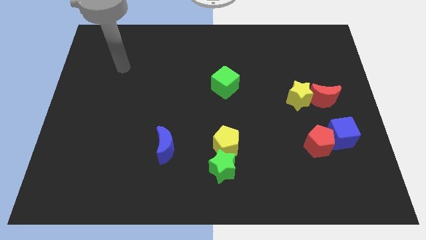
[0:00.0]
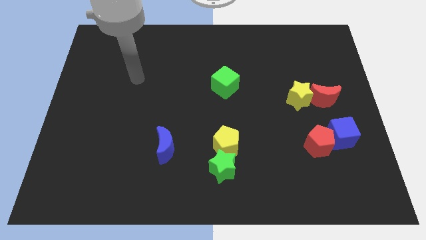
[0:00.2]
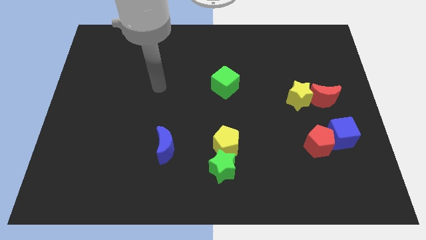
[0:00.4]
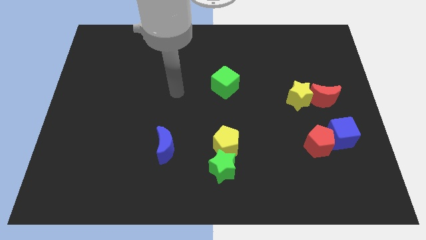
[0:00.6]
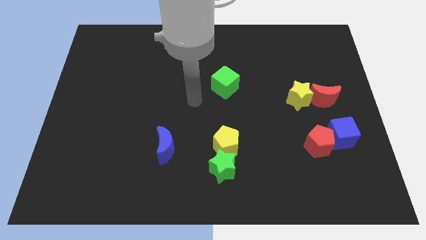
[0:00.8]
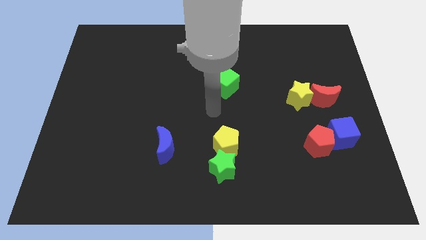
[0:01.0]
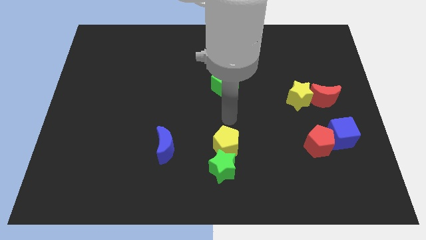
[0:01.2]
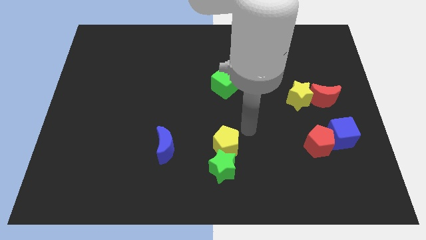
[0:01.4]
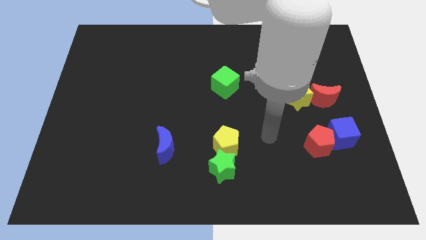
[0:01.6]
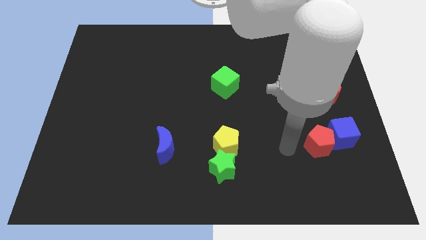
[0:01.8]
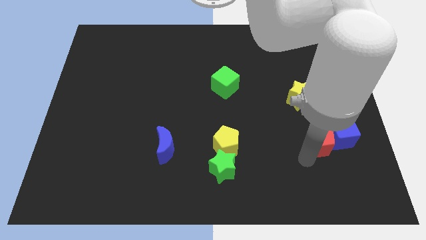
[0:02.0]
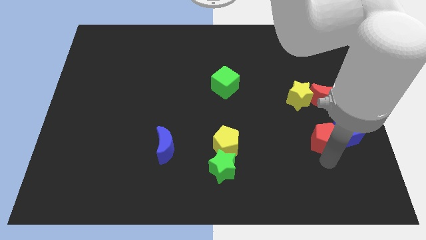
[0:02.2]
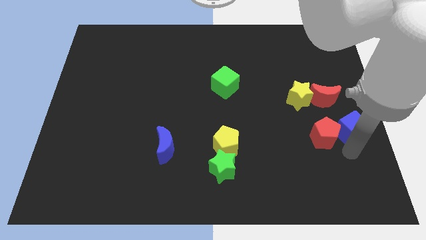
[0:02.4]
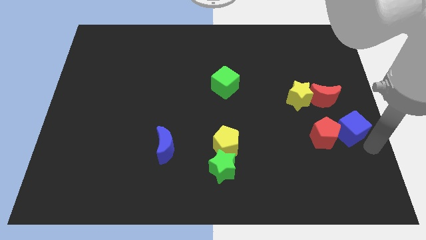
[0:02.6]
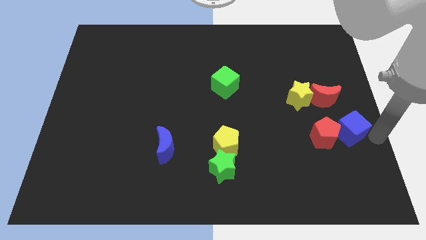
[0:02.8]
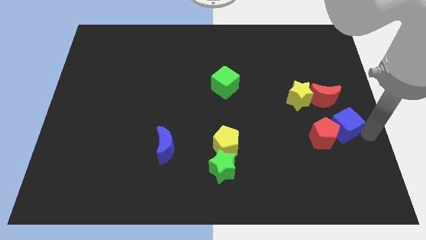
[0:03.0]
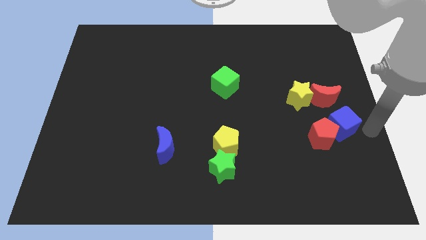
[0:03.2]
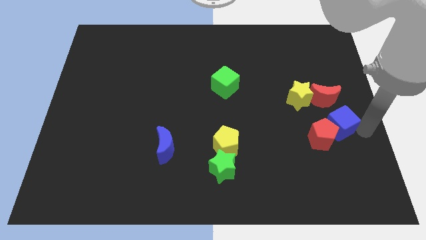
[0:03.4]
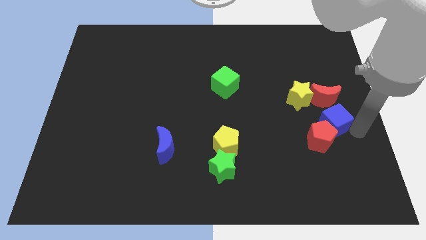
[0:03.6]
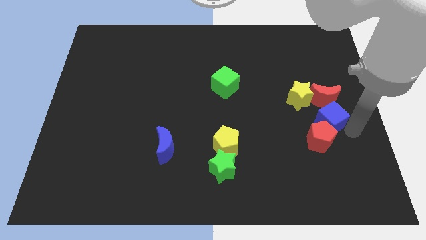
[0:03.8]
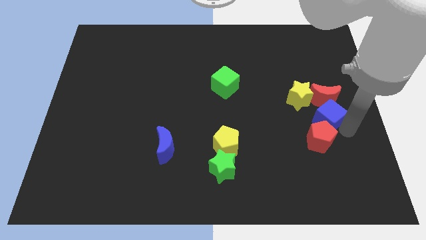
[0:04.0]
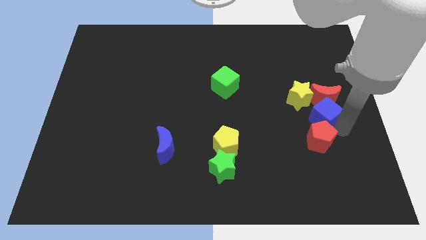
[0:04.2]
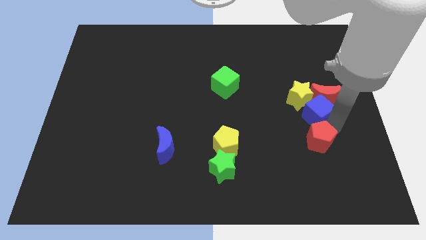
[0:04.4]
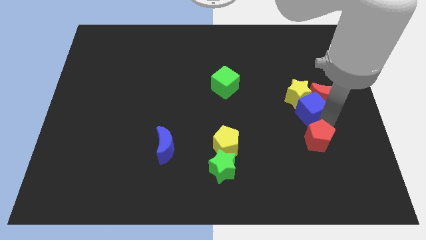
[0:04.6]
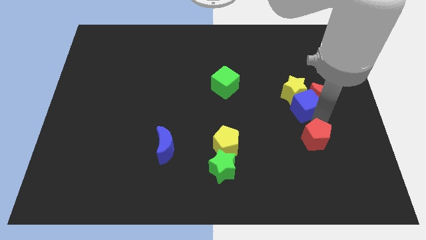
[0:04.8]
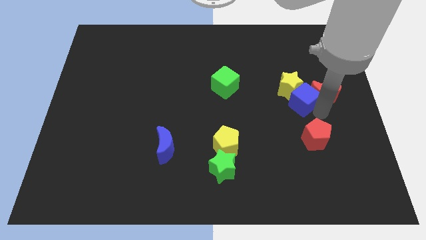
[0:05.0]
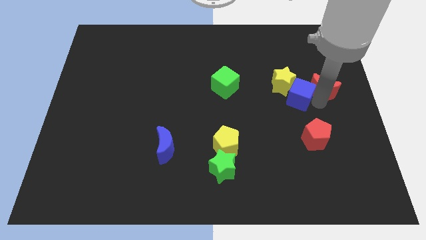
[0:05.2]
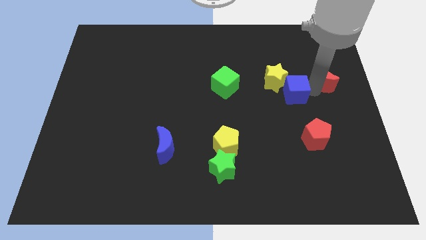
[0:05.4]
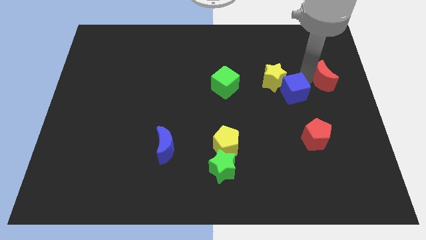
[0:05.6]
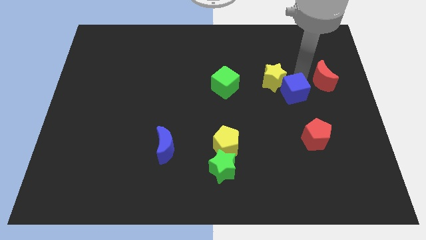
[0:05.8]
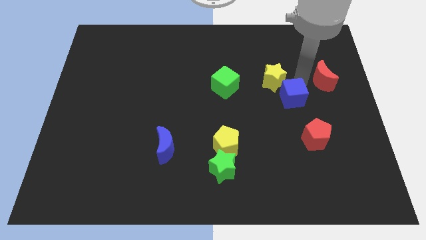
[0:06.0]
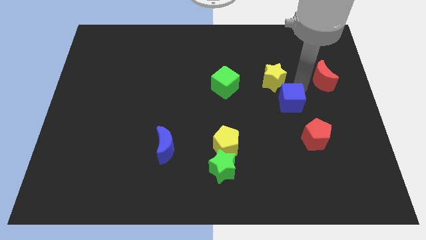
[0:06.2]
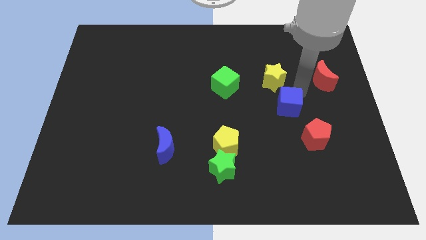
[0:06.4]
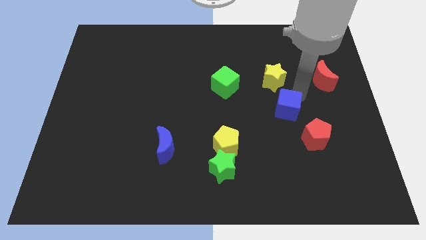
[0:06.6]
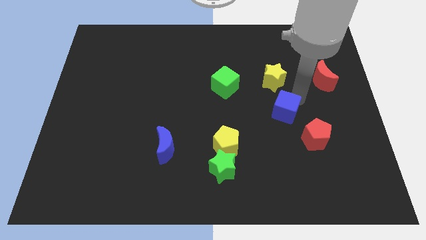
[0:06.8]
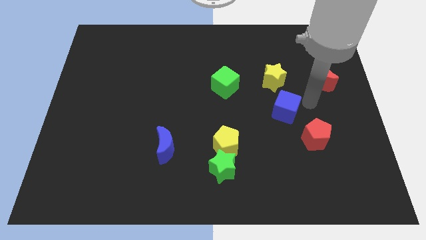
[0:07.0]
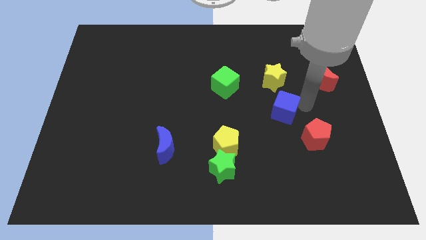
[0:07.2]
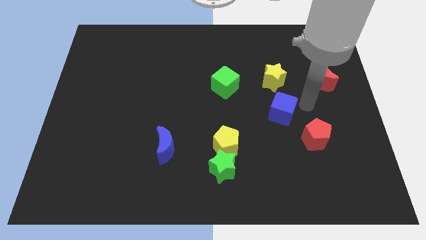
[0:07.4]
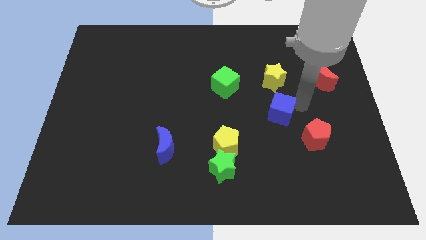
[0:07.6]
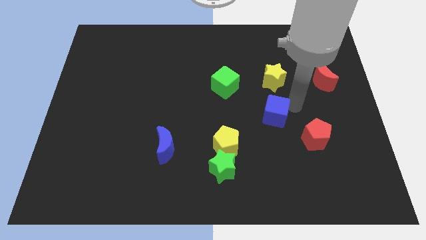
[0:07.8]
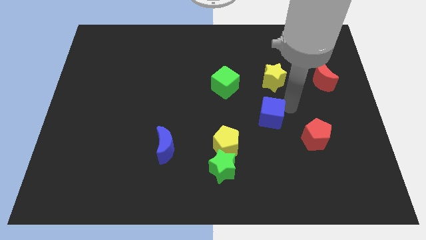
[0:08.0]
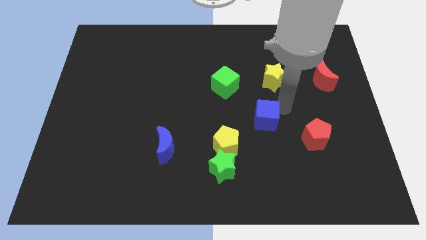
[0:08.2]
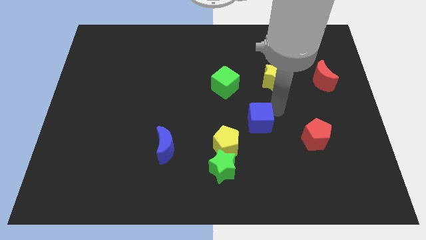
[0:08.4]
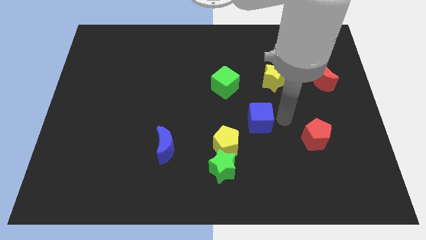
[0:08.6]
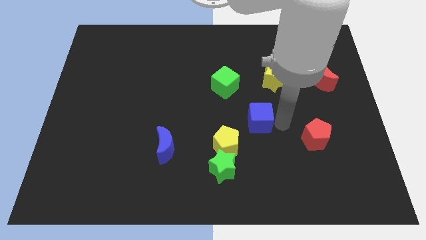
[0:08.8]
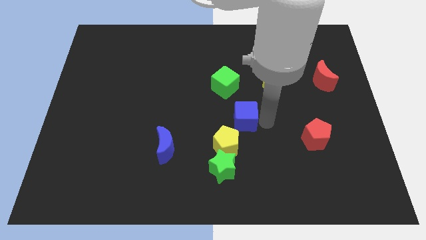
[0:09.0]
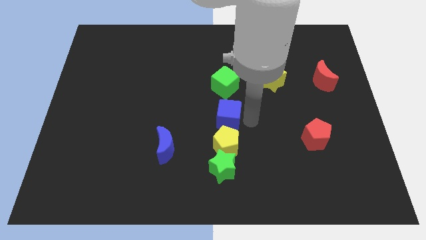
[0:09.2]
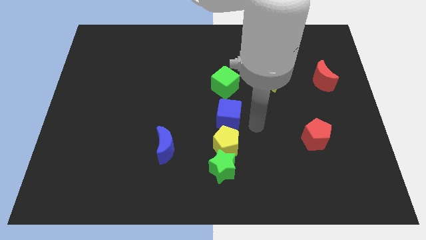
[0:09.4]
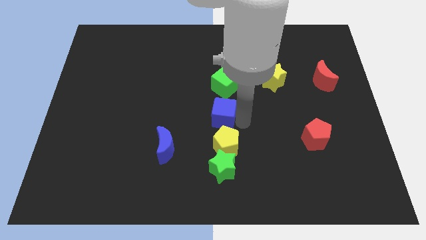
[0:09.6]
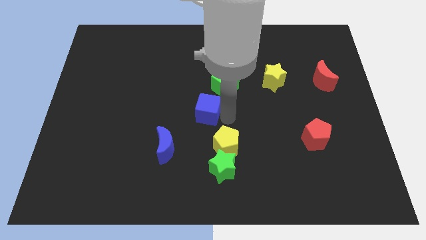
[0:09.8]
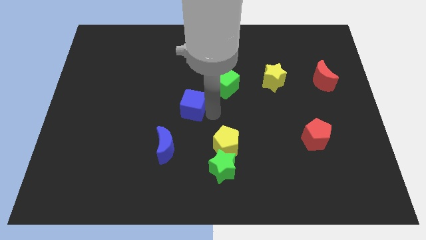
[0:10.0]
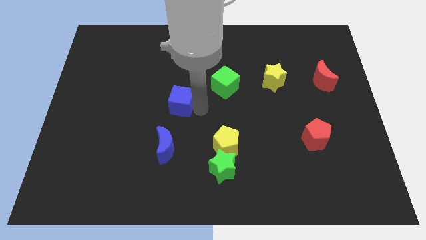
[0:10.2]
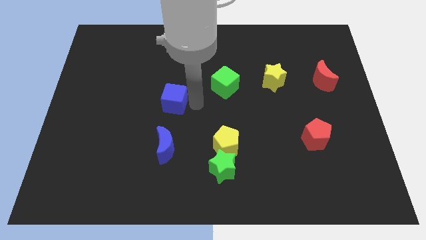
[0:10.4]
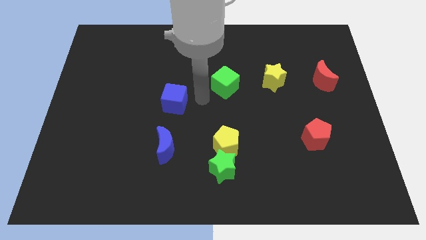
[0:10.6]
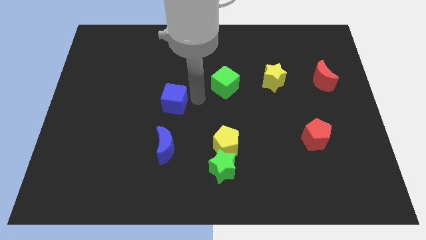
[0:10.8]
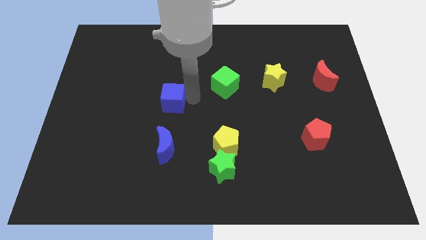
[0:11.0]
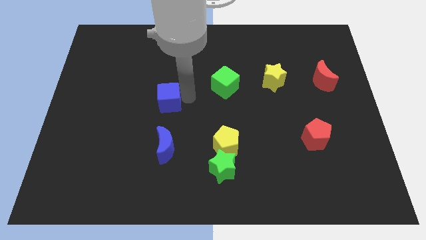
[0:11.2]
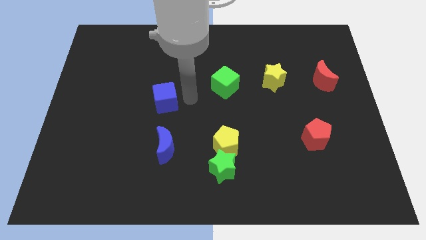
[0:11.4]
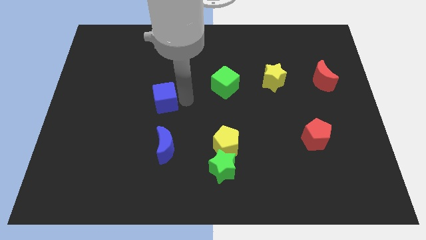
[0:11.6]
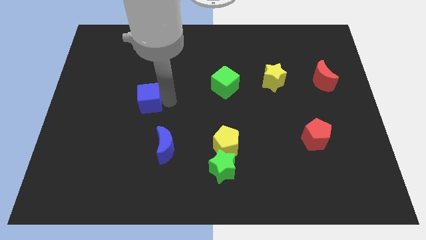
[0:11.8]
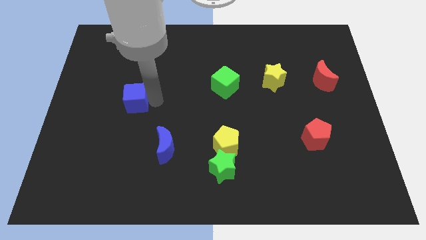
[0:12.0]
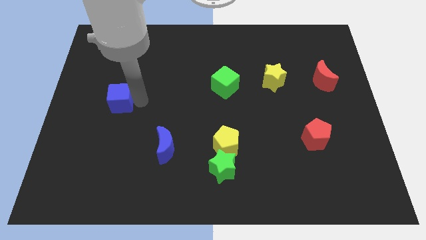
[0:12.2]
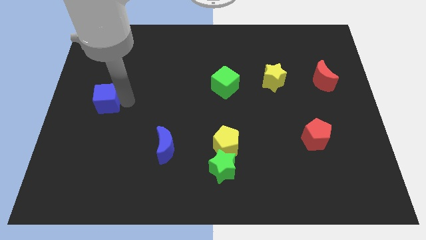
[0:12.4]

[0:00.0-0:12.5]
move the blue cube to the center left
